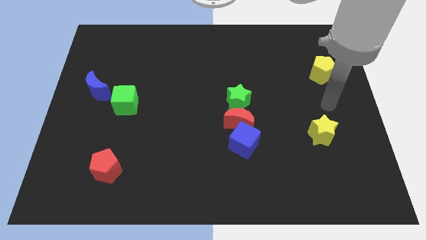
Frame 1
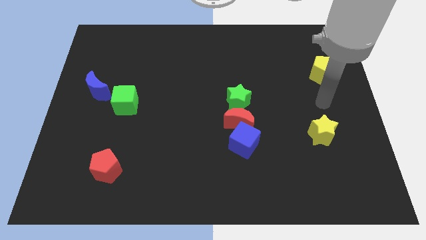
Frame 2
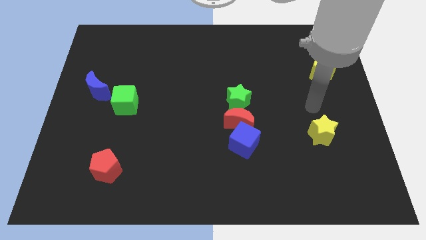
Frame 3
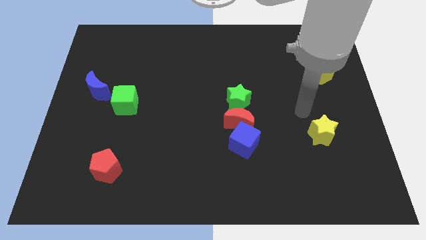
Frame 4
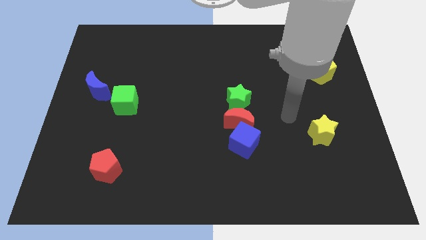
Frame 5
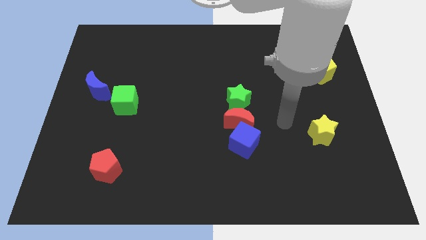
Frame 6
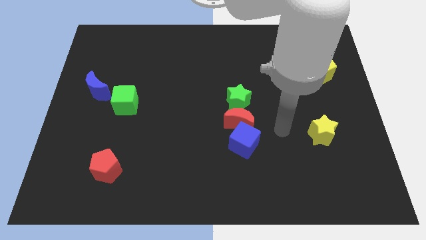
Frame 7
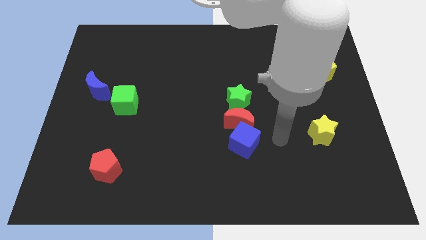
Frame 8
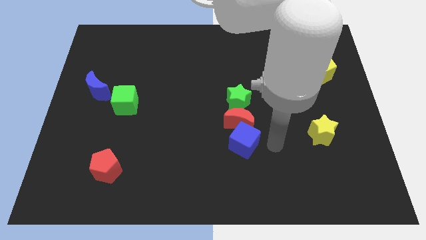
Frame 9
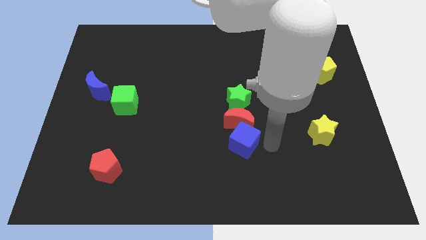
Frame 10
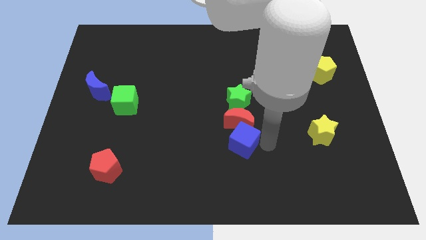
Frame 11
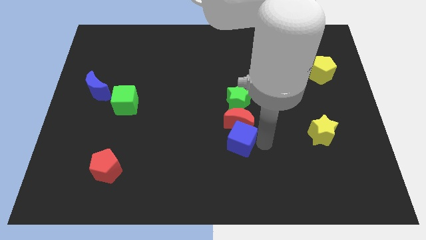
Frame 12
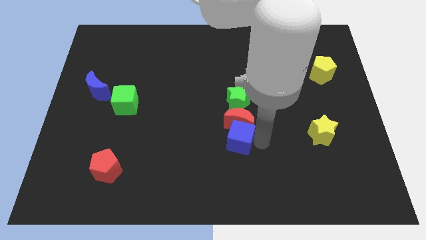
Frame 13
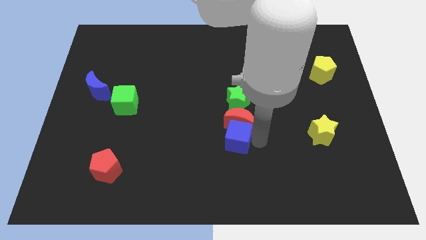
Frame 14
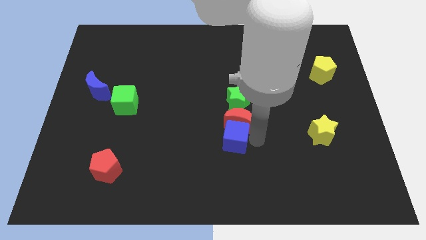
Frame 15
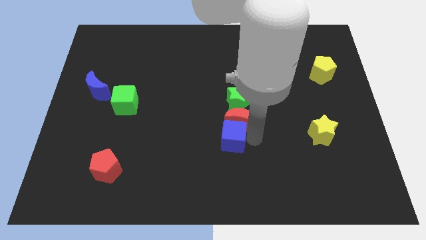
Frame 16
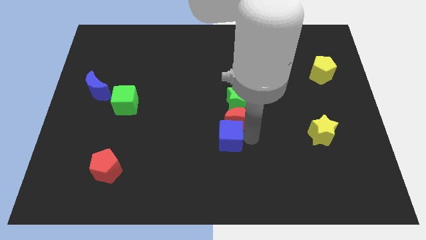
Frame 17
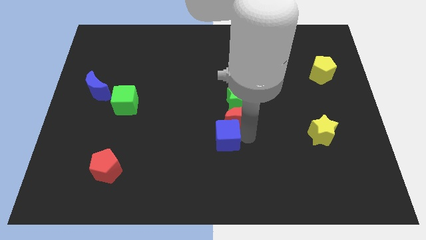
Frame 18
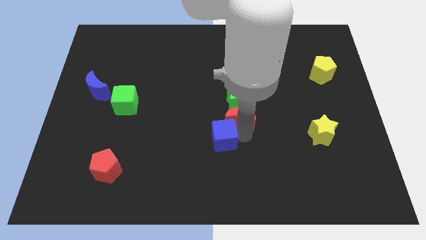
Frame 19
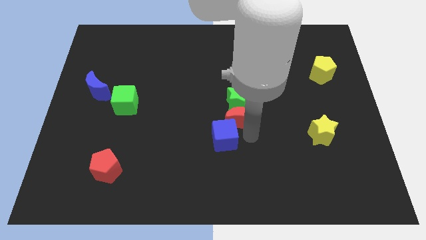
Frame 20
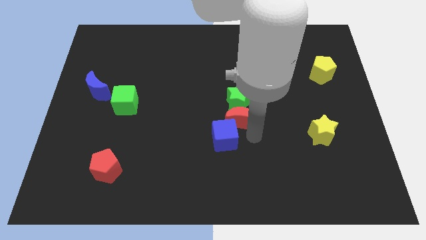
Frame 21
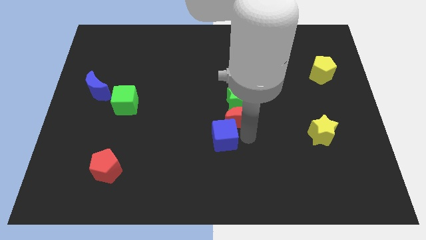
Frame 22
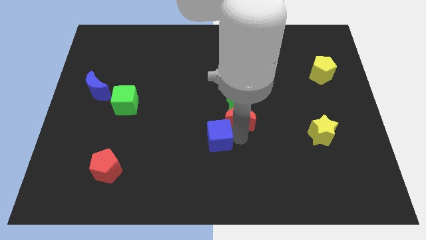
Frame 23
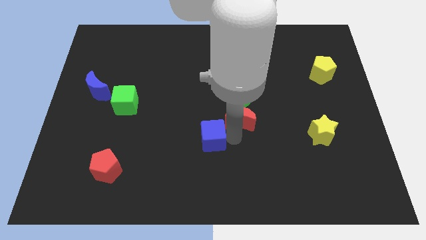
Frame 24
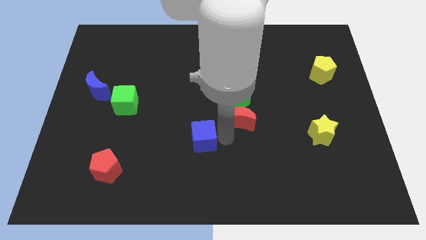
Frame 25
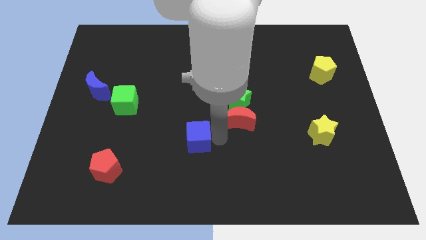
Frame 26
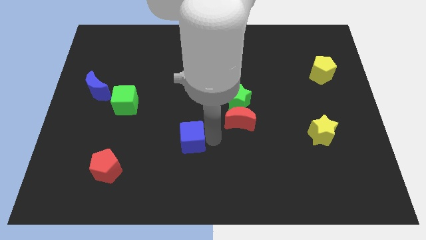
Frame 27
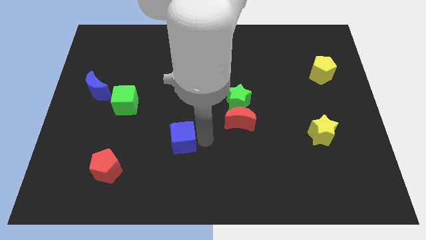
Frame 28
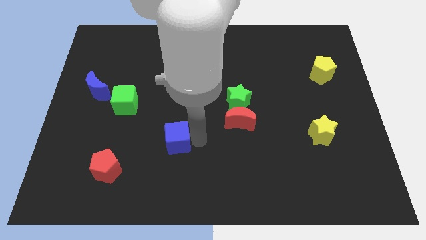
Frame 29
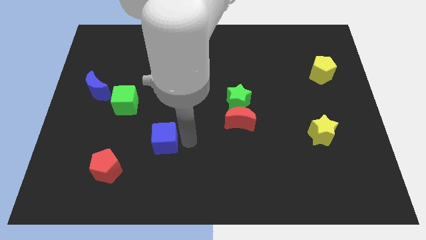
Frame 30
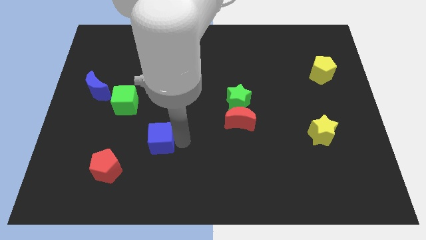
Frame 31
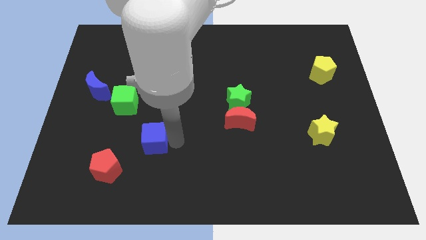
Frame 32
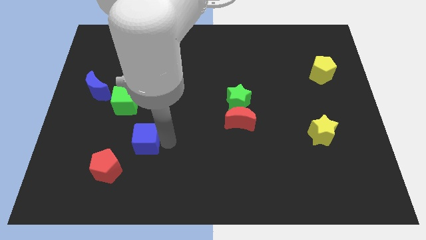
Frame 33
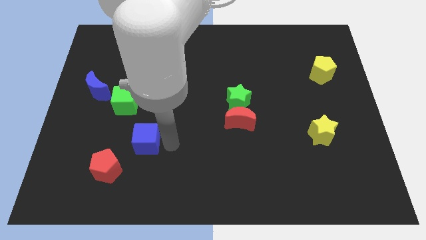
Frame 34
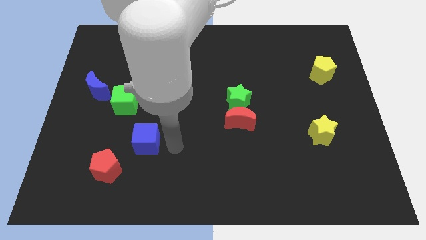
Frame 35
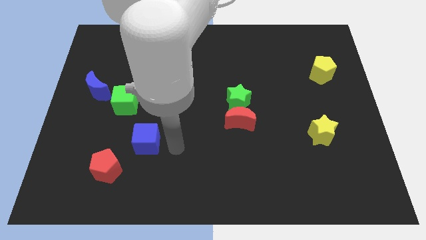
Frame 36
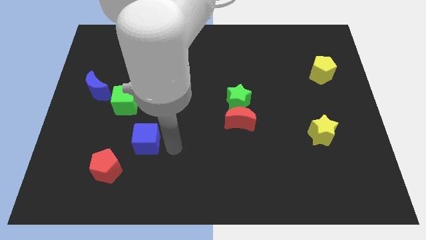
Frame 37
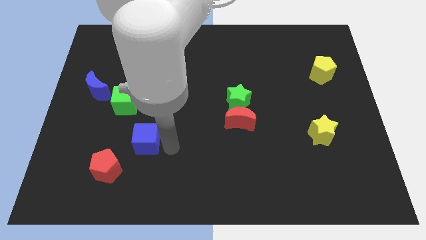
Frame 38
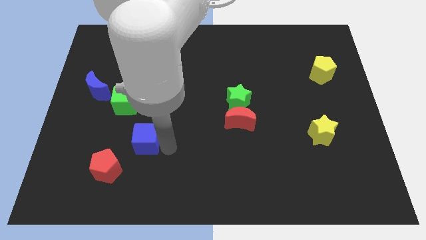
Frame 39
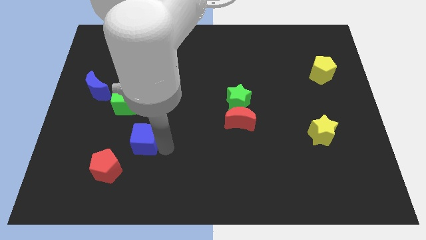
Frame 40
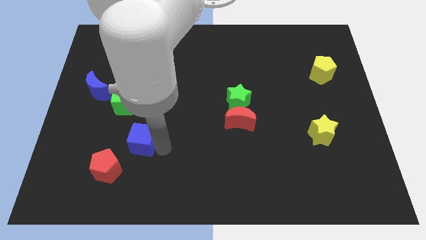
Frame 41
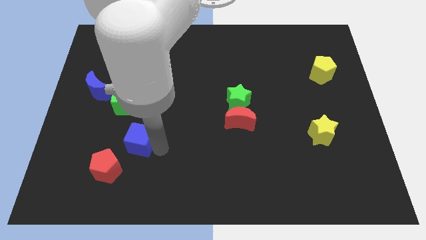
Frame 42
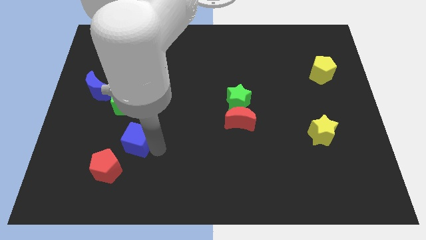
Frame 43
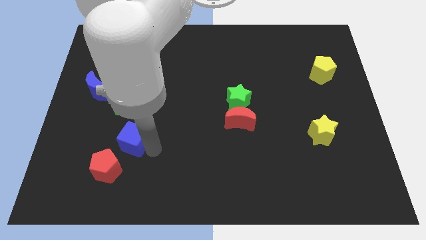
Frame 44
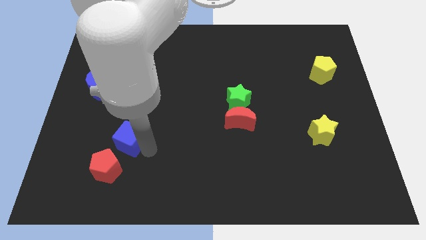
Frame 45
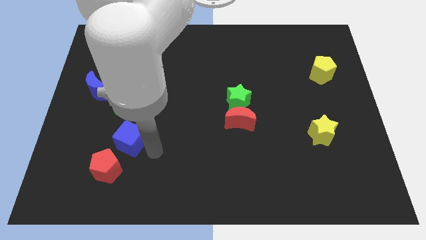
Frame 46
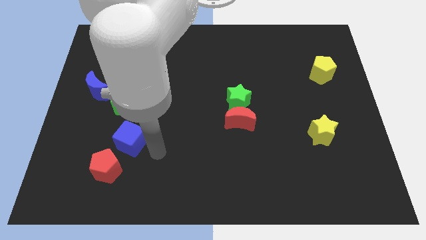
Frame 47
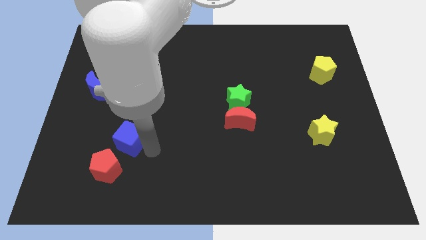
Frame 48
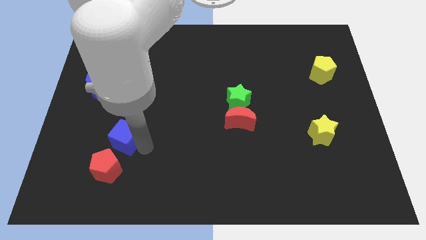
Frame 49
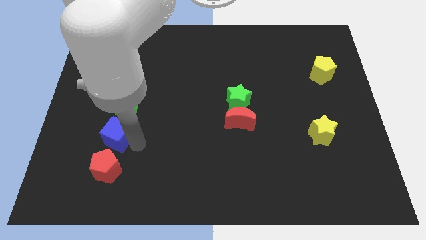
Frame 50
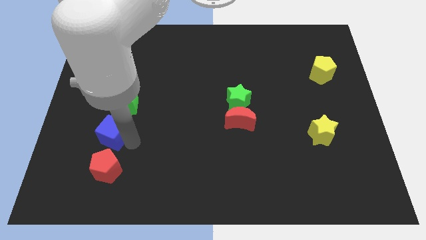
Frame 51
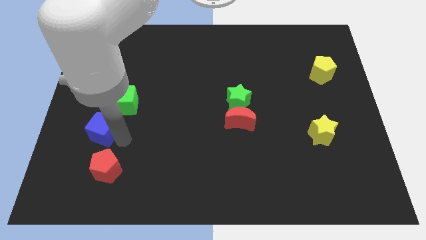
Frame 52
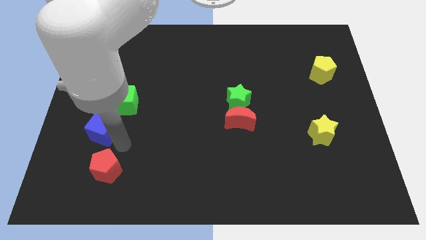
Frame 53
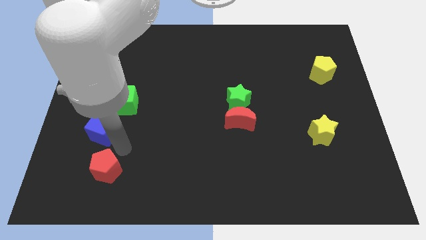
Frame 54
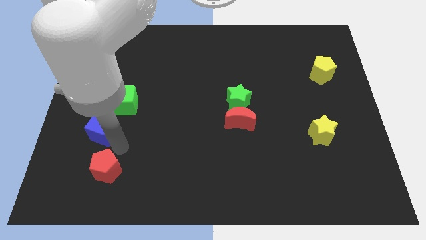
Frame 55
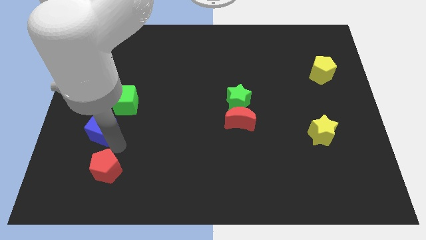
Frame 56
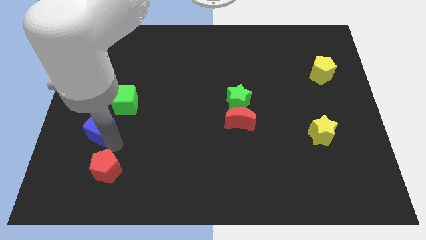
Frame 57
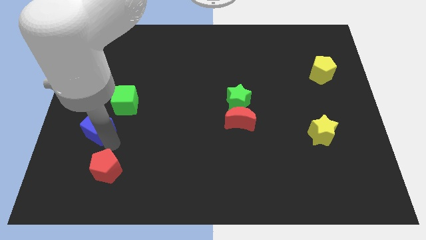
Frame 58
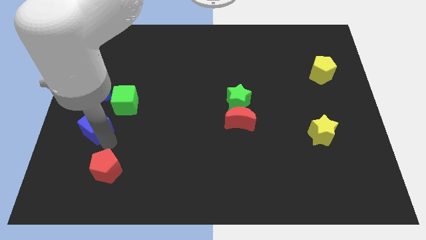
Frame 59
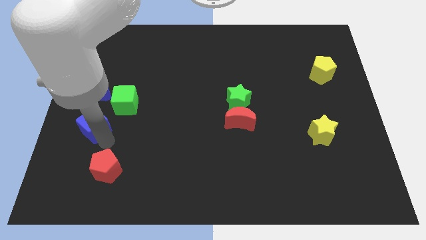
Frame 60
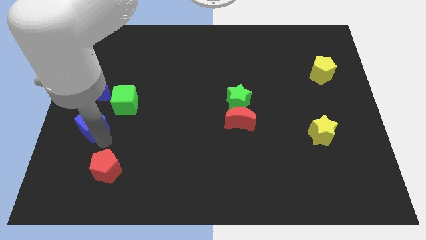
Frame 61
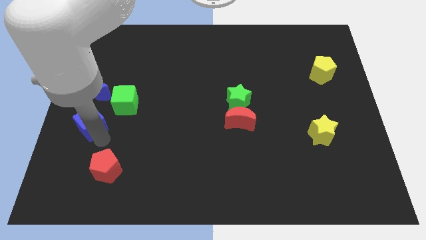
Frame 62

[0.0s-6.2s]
slide the blue cube to the left side
